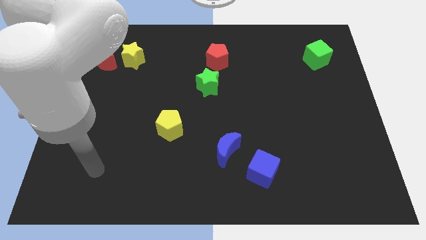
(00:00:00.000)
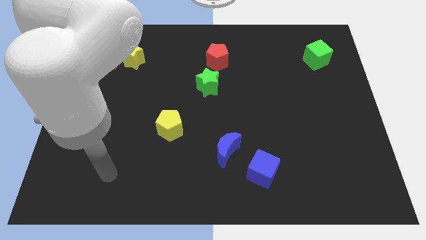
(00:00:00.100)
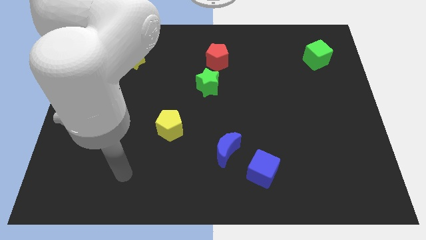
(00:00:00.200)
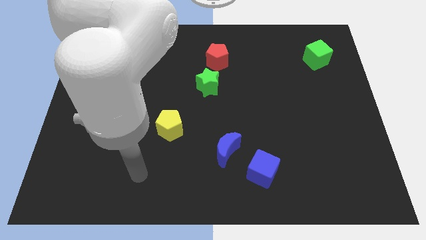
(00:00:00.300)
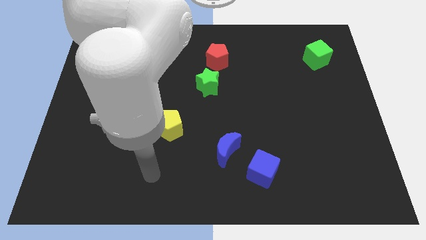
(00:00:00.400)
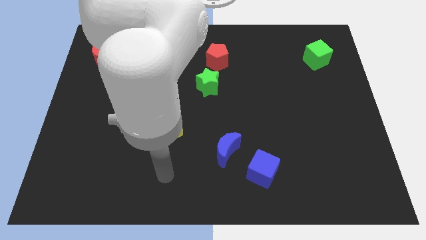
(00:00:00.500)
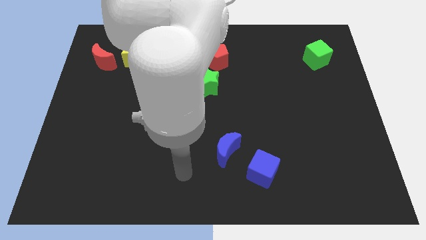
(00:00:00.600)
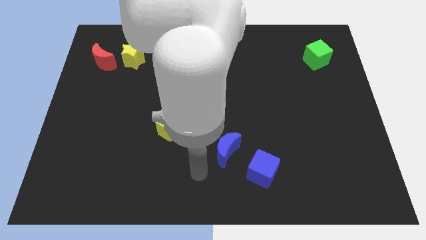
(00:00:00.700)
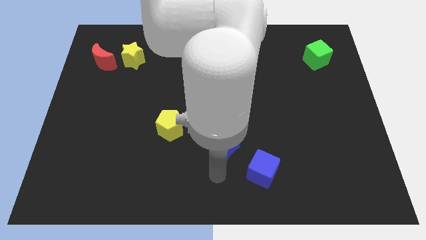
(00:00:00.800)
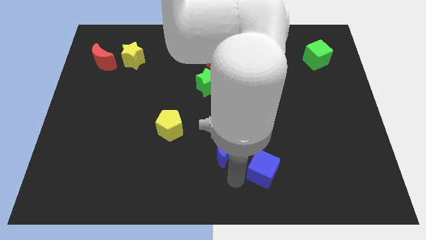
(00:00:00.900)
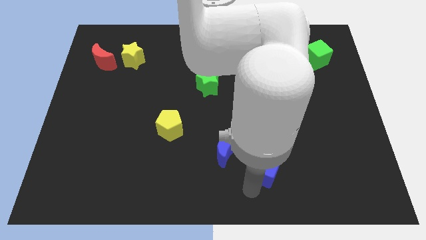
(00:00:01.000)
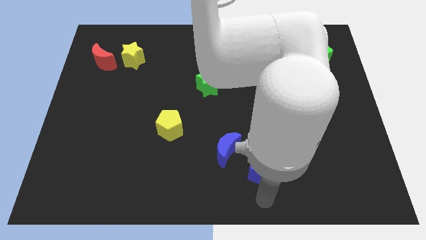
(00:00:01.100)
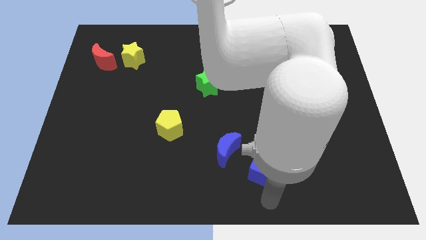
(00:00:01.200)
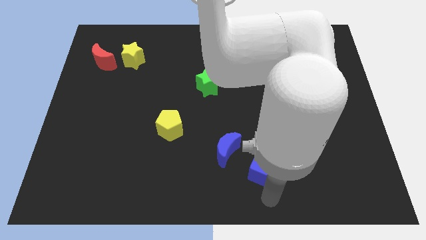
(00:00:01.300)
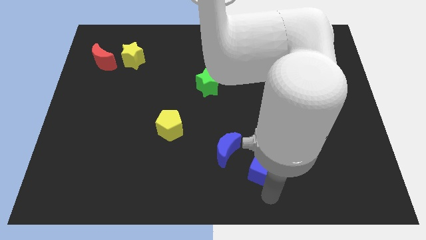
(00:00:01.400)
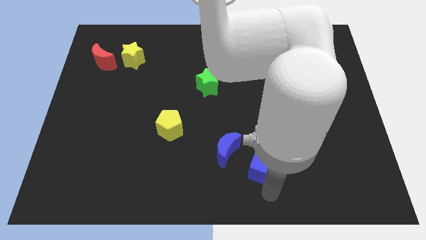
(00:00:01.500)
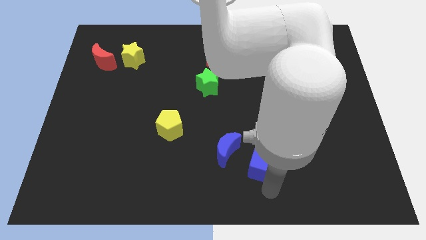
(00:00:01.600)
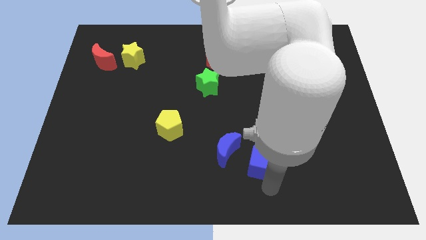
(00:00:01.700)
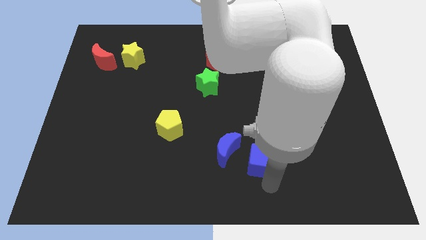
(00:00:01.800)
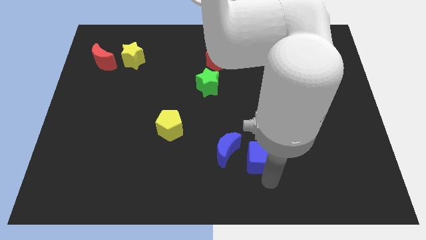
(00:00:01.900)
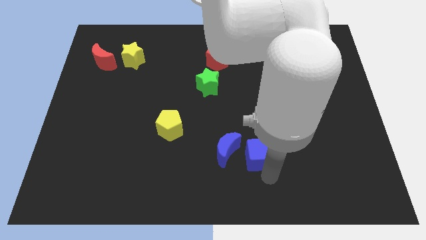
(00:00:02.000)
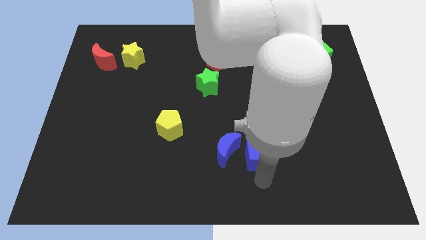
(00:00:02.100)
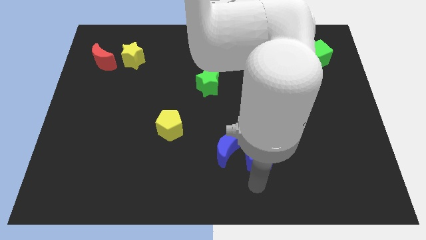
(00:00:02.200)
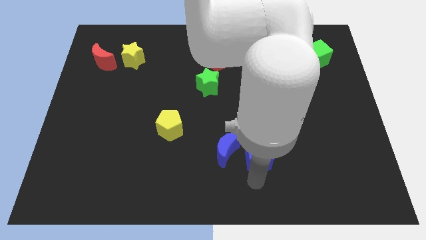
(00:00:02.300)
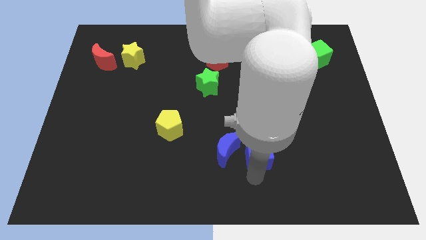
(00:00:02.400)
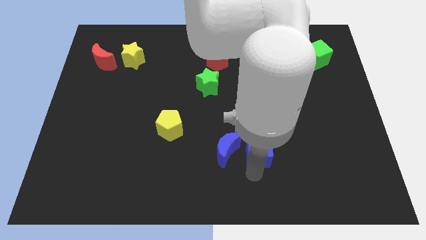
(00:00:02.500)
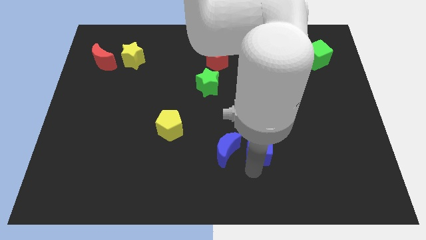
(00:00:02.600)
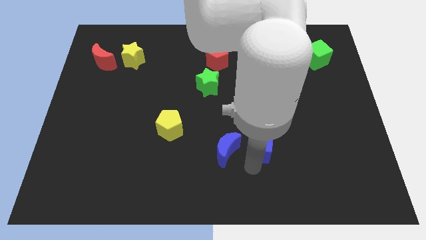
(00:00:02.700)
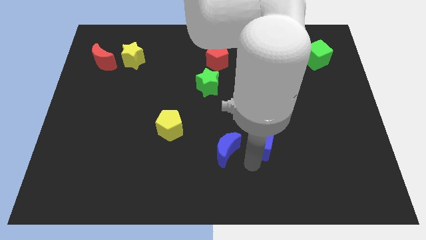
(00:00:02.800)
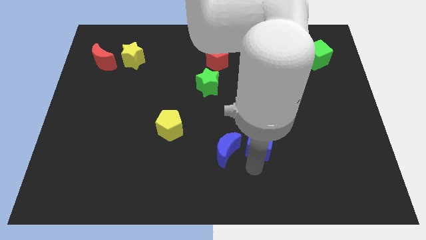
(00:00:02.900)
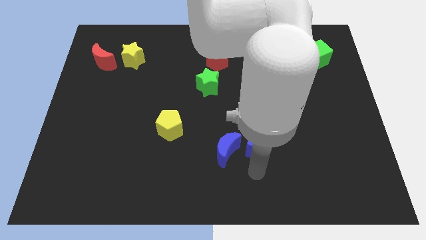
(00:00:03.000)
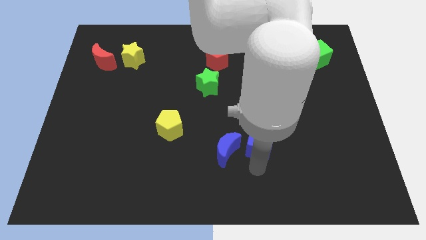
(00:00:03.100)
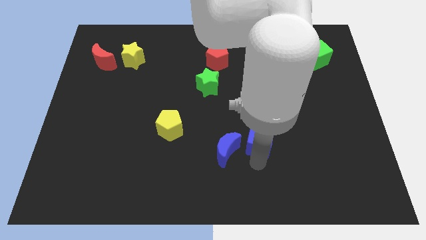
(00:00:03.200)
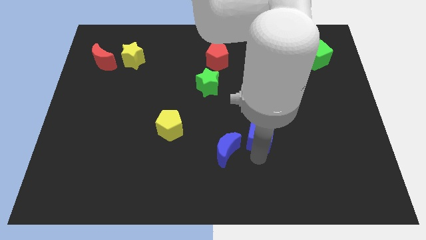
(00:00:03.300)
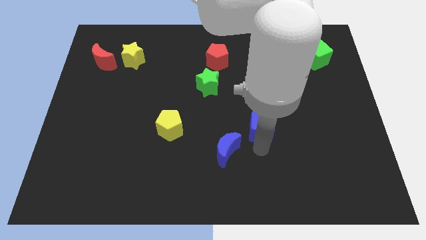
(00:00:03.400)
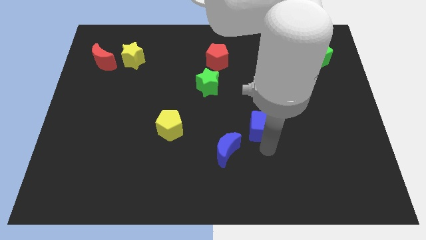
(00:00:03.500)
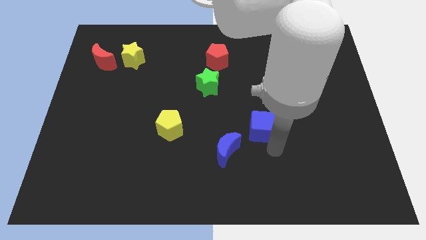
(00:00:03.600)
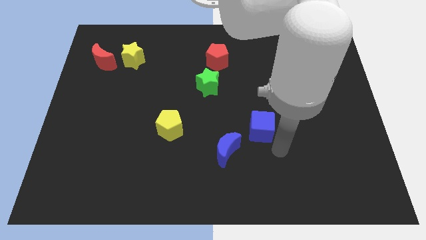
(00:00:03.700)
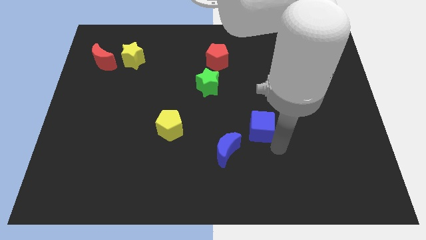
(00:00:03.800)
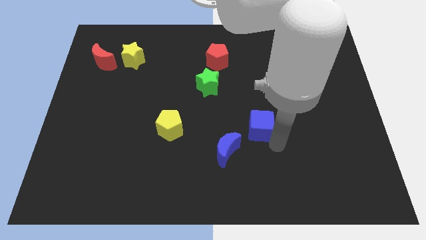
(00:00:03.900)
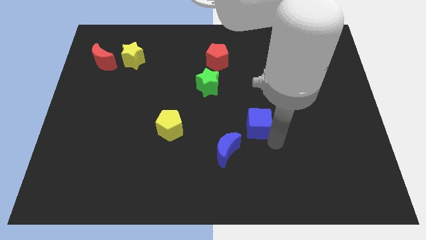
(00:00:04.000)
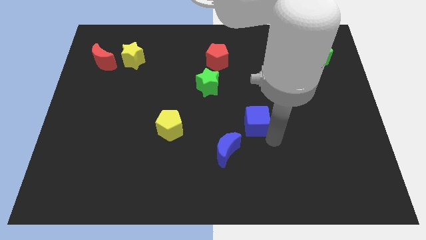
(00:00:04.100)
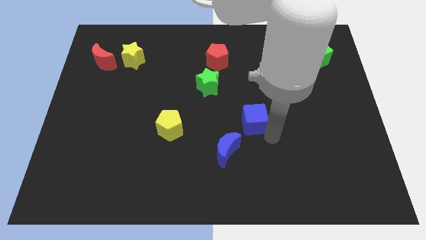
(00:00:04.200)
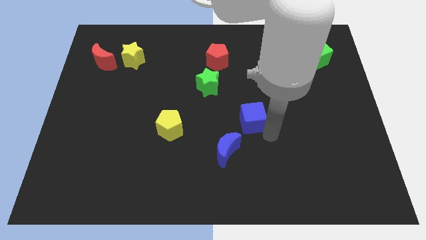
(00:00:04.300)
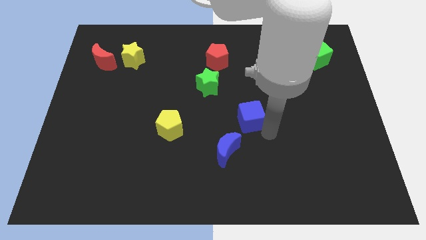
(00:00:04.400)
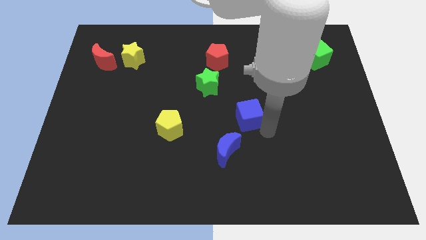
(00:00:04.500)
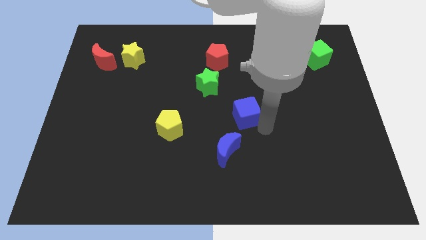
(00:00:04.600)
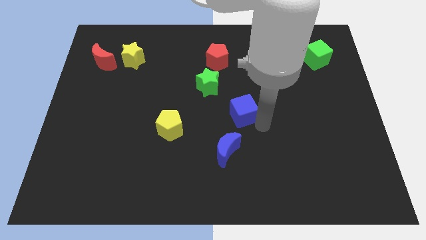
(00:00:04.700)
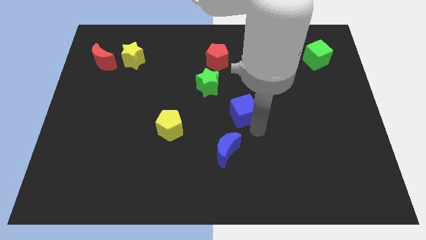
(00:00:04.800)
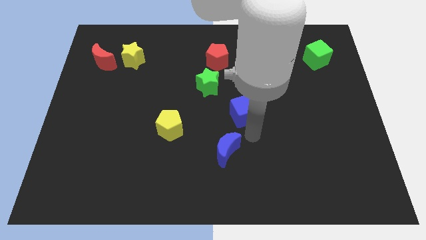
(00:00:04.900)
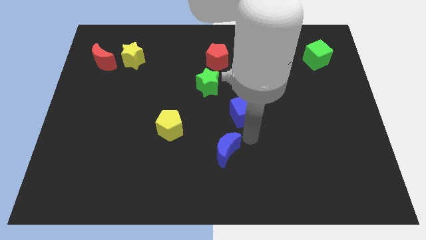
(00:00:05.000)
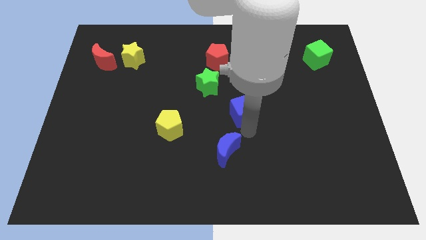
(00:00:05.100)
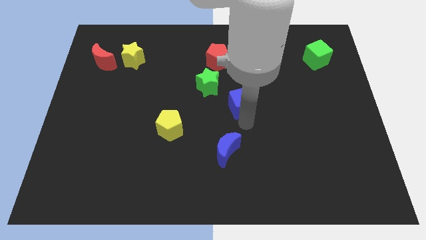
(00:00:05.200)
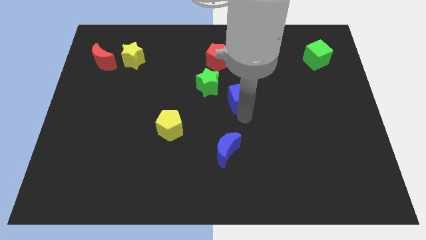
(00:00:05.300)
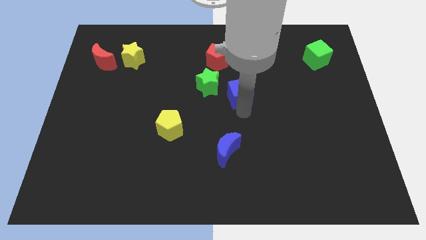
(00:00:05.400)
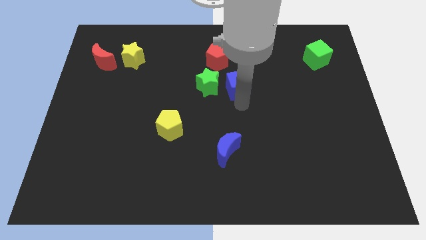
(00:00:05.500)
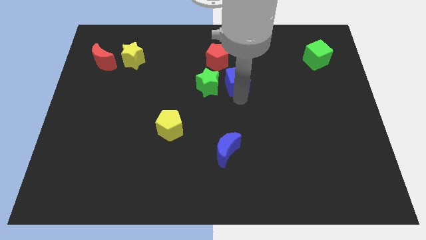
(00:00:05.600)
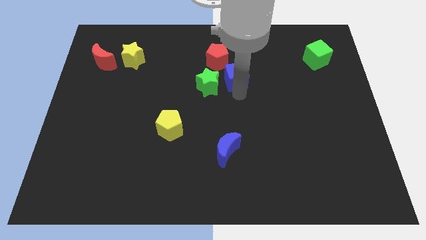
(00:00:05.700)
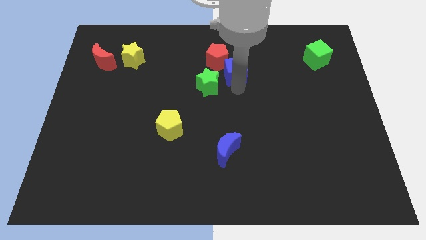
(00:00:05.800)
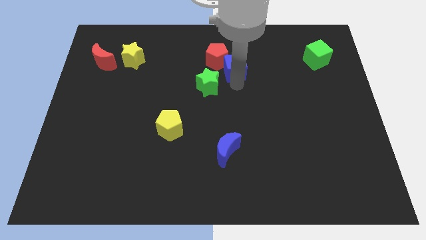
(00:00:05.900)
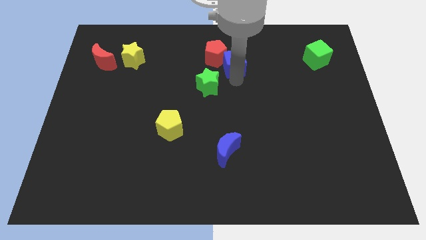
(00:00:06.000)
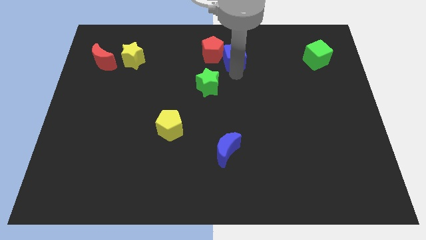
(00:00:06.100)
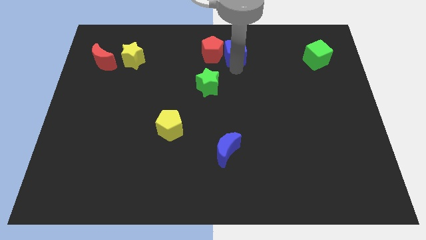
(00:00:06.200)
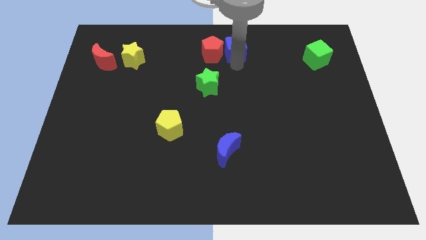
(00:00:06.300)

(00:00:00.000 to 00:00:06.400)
push the blue cube to the top

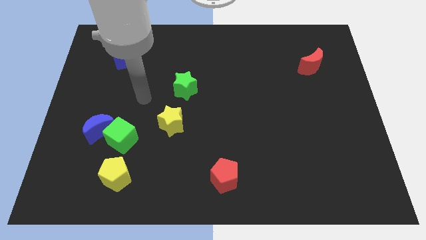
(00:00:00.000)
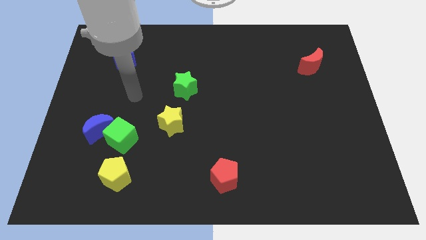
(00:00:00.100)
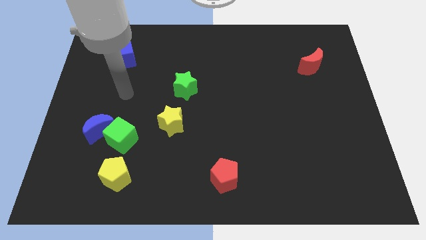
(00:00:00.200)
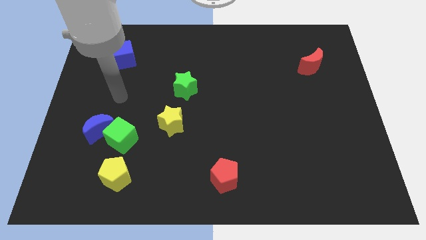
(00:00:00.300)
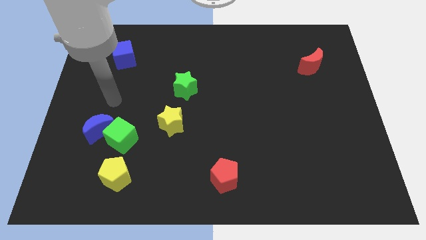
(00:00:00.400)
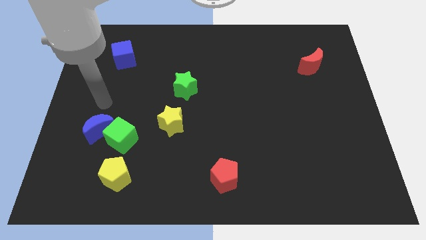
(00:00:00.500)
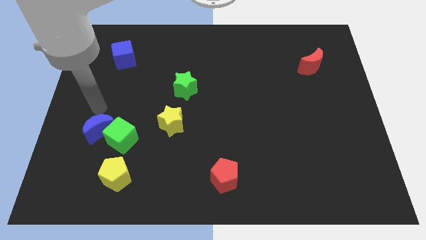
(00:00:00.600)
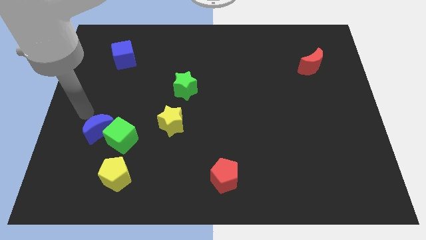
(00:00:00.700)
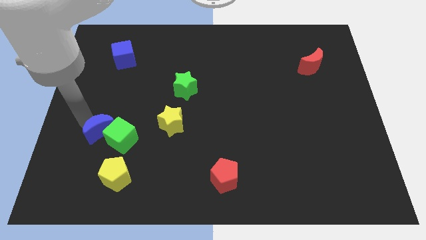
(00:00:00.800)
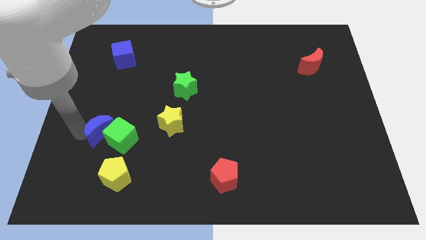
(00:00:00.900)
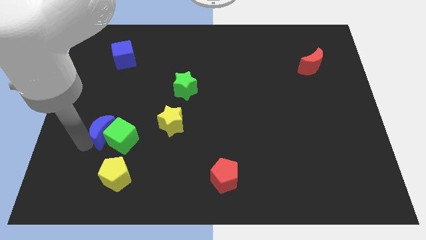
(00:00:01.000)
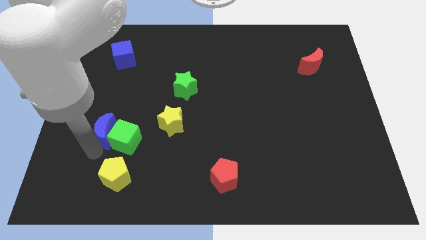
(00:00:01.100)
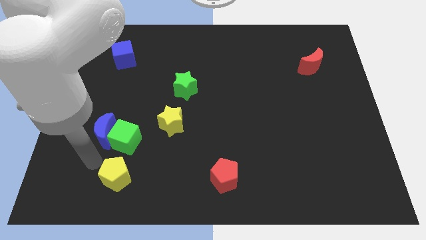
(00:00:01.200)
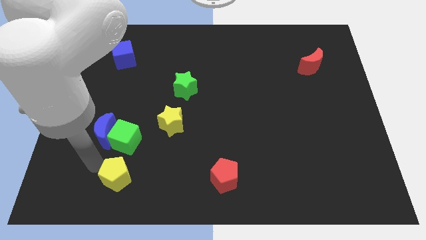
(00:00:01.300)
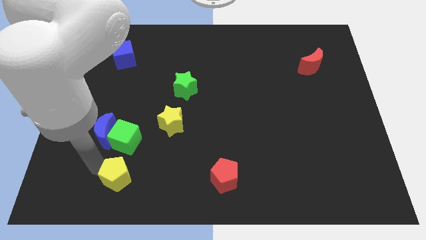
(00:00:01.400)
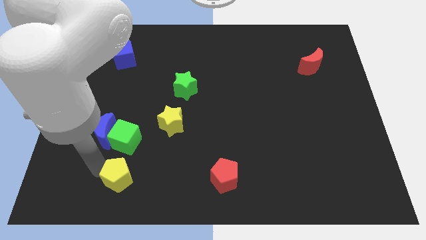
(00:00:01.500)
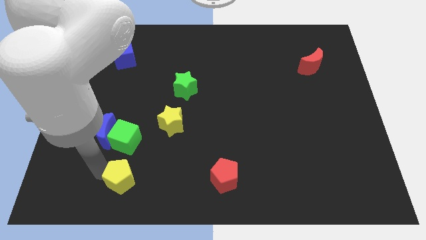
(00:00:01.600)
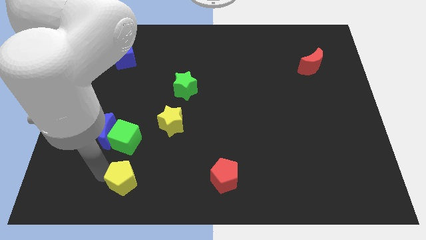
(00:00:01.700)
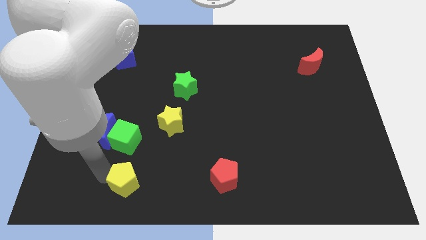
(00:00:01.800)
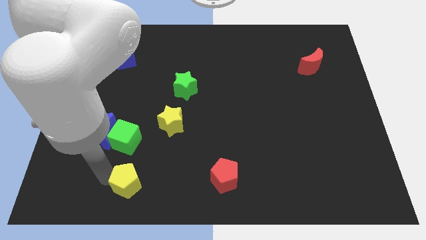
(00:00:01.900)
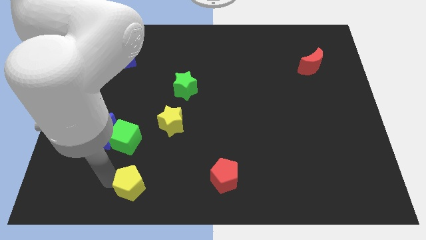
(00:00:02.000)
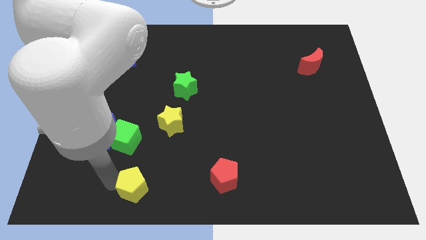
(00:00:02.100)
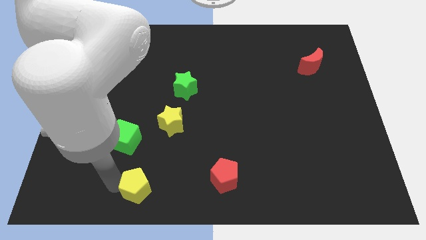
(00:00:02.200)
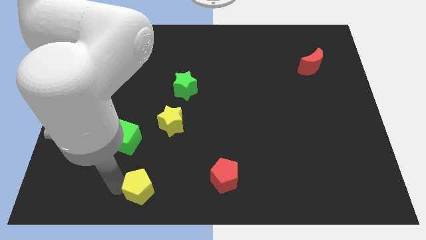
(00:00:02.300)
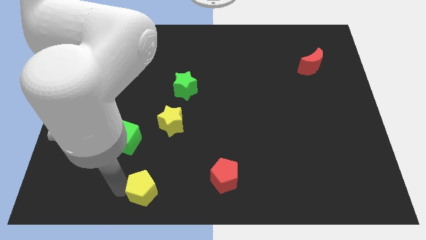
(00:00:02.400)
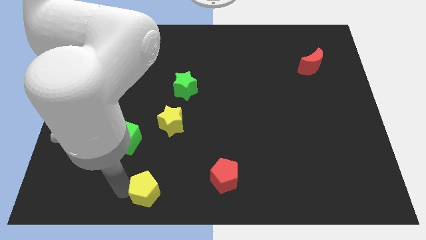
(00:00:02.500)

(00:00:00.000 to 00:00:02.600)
move the yellow pentagon to the bottom
